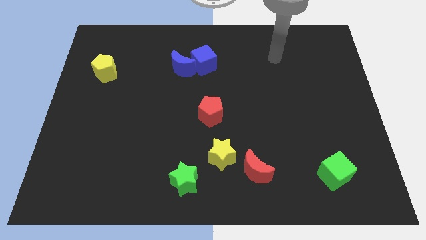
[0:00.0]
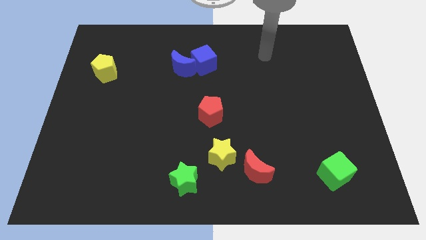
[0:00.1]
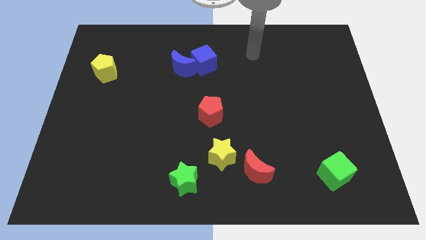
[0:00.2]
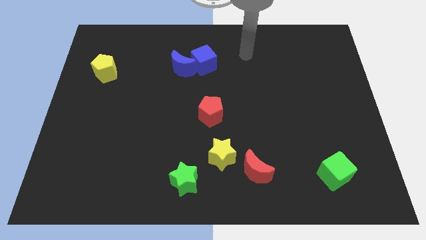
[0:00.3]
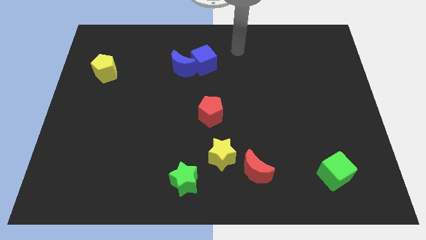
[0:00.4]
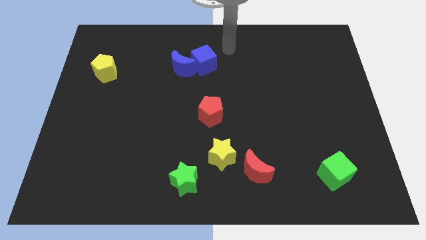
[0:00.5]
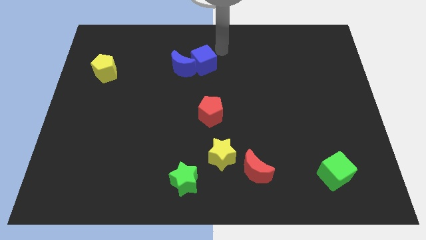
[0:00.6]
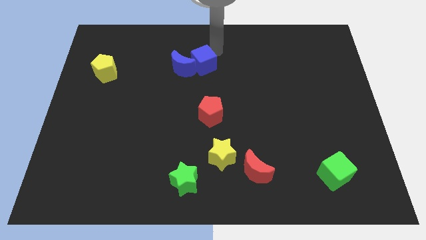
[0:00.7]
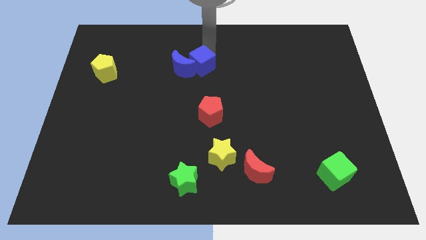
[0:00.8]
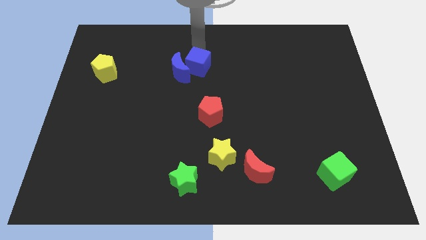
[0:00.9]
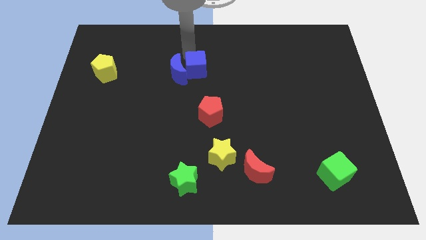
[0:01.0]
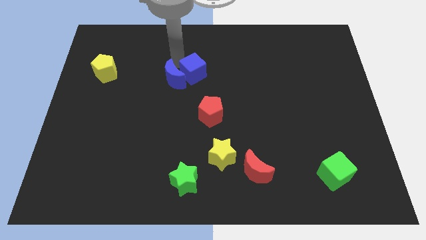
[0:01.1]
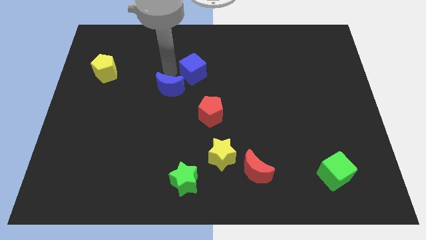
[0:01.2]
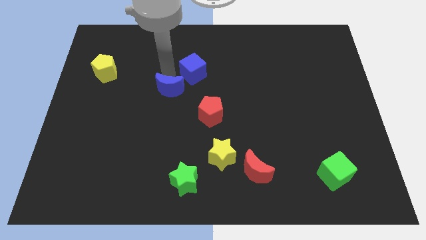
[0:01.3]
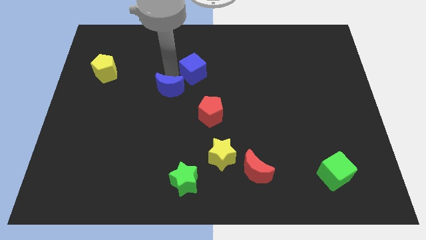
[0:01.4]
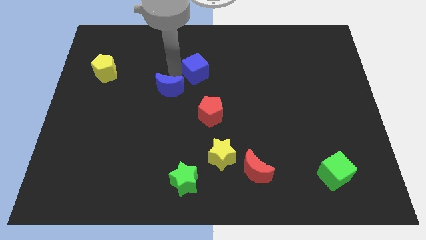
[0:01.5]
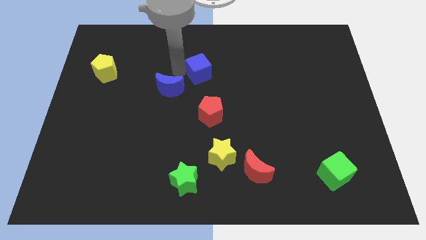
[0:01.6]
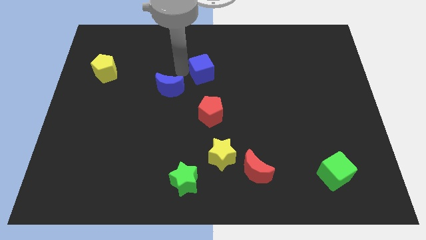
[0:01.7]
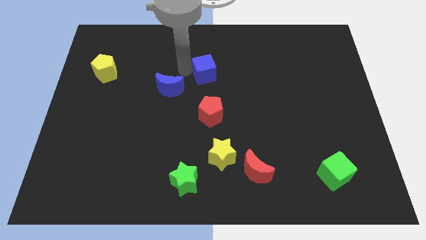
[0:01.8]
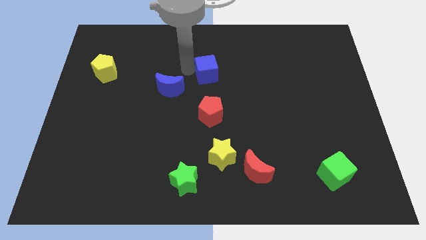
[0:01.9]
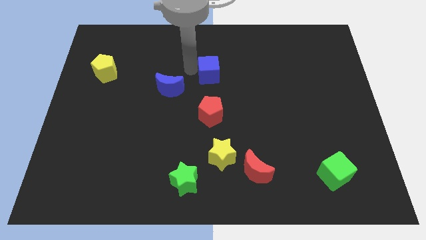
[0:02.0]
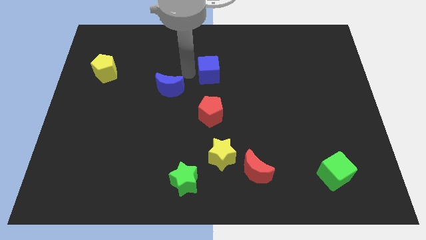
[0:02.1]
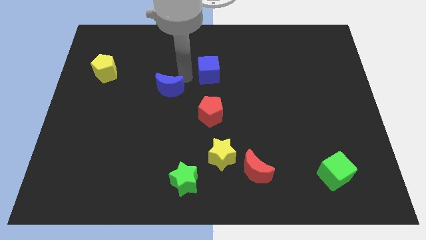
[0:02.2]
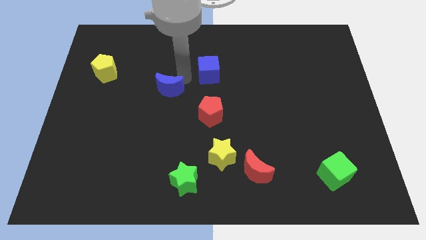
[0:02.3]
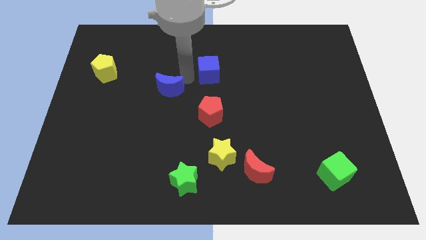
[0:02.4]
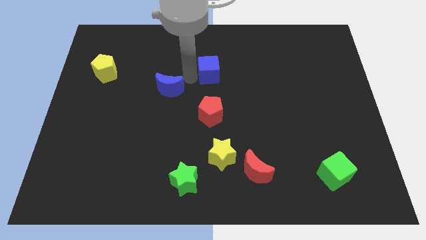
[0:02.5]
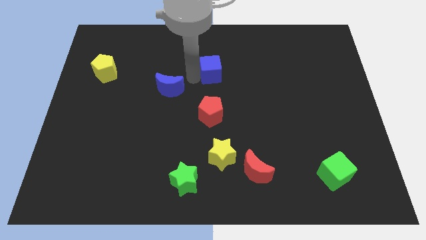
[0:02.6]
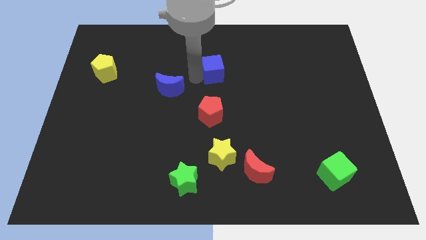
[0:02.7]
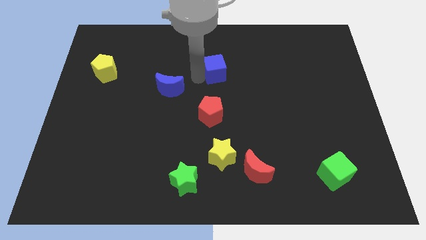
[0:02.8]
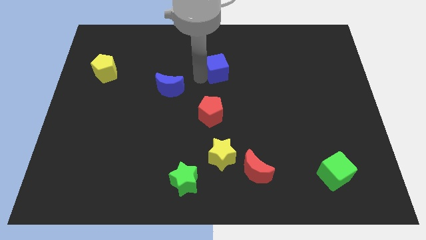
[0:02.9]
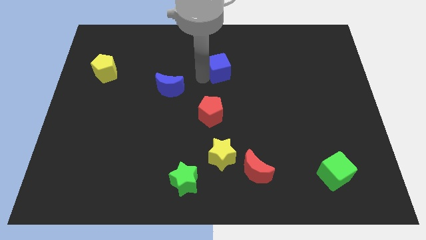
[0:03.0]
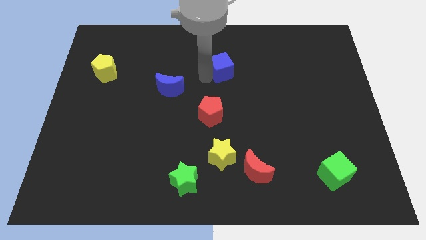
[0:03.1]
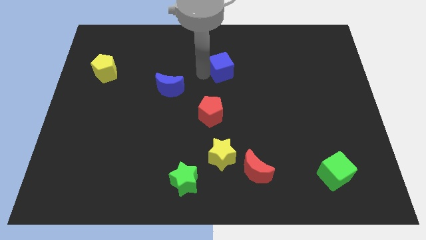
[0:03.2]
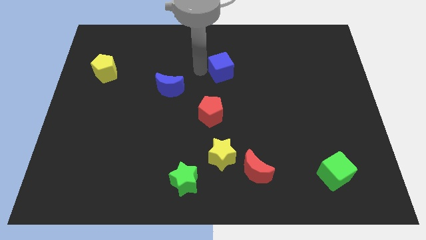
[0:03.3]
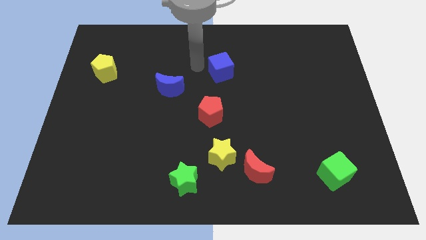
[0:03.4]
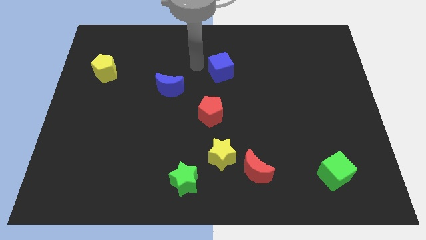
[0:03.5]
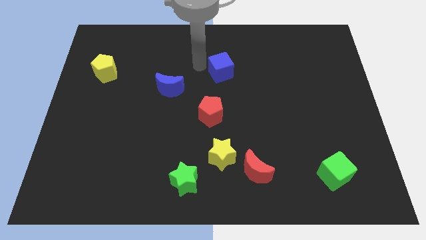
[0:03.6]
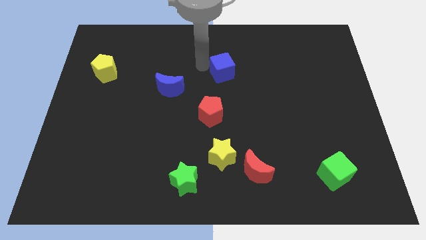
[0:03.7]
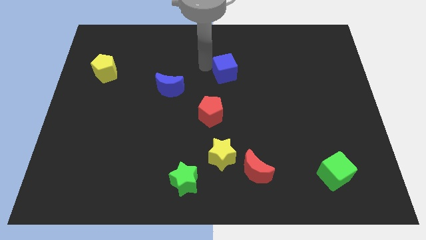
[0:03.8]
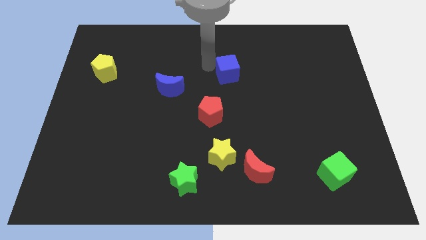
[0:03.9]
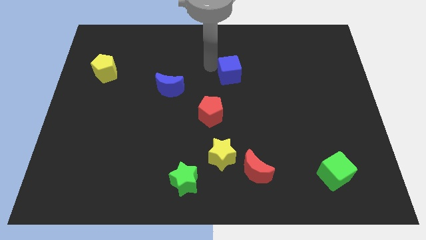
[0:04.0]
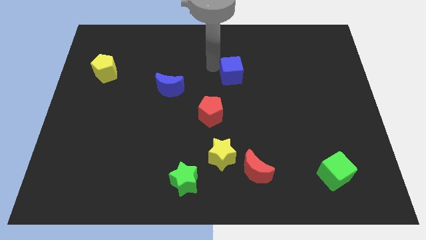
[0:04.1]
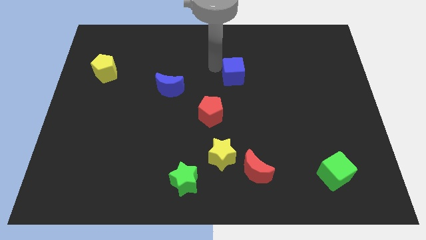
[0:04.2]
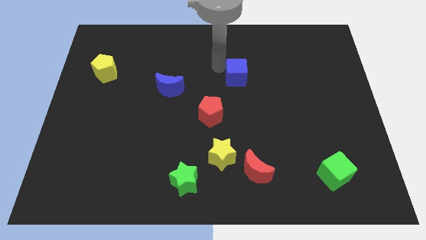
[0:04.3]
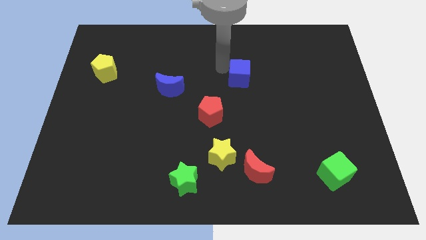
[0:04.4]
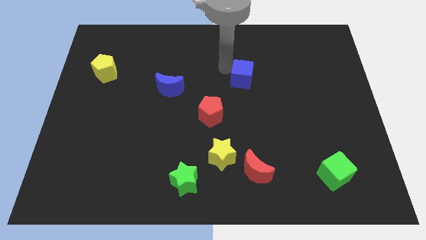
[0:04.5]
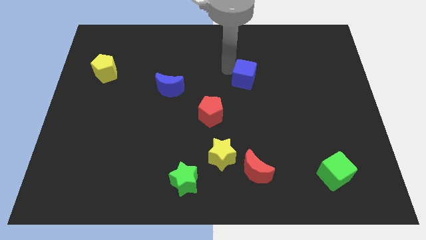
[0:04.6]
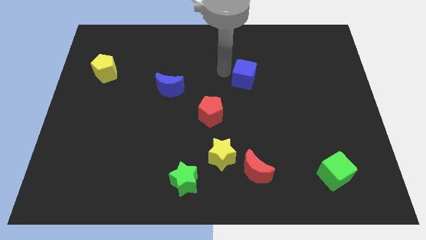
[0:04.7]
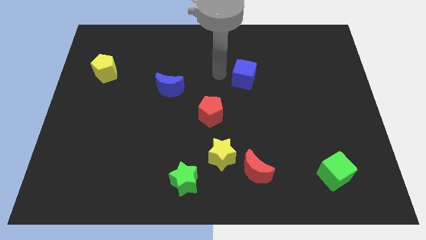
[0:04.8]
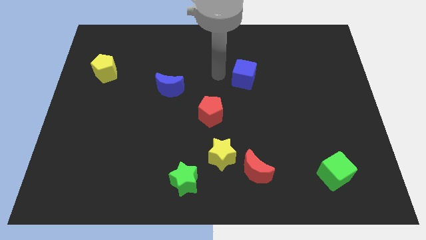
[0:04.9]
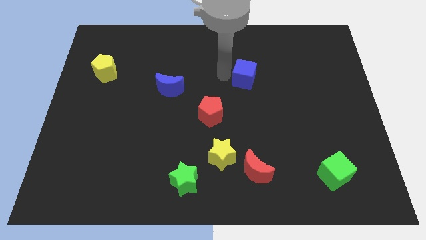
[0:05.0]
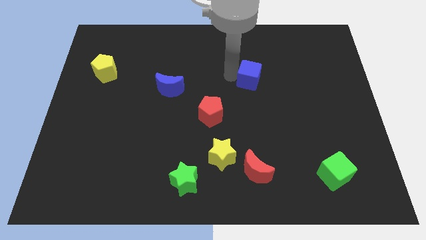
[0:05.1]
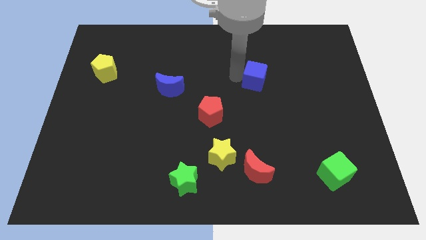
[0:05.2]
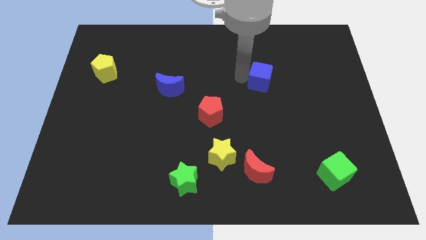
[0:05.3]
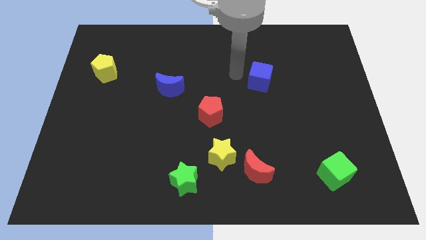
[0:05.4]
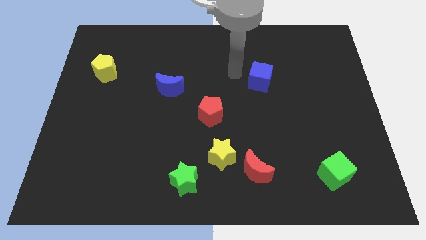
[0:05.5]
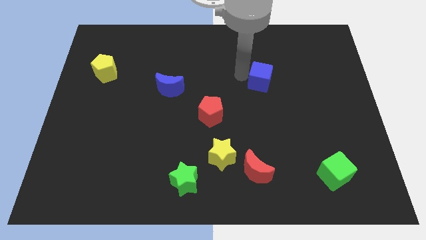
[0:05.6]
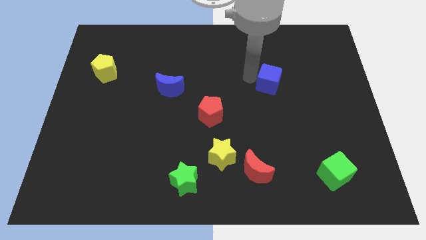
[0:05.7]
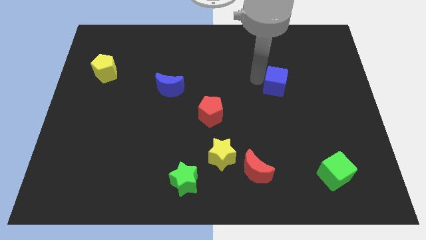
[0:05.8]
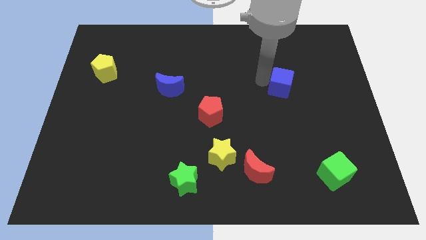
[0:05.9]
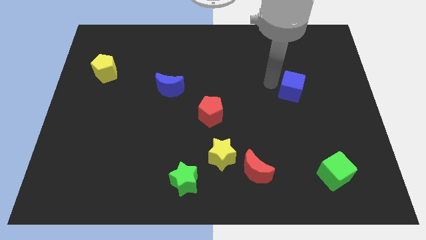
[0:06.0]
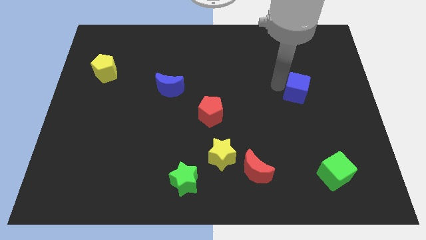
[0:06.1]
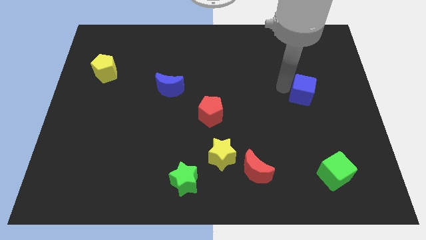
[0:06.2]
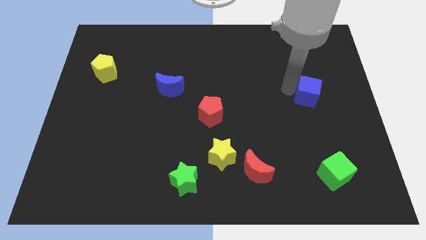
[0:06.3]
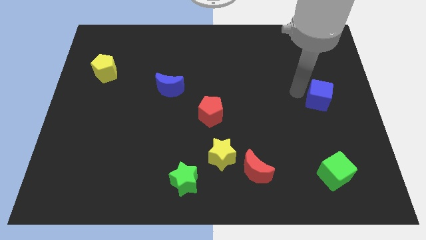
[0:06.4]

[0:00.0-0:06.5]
slide the blue cube to the center right
